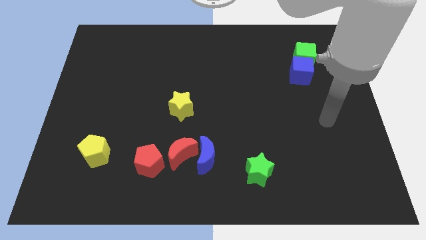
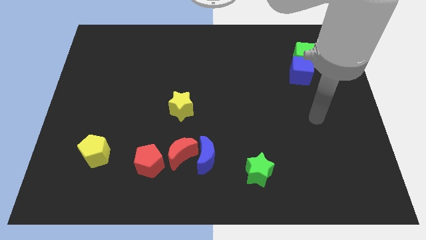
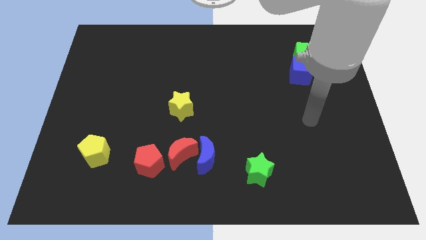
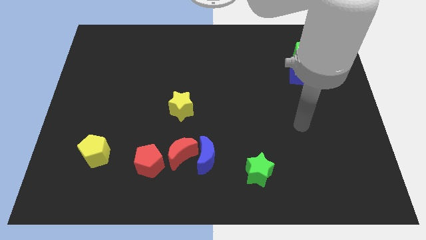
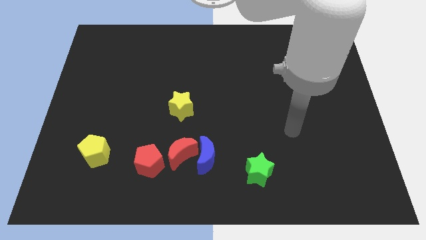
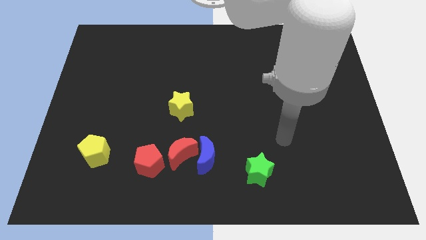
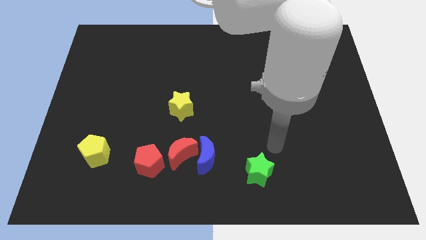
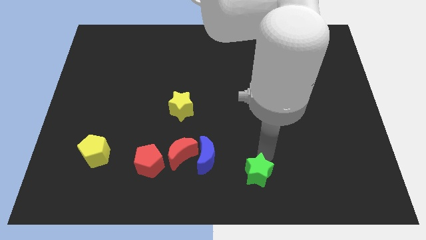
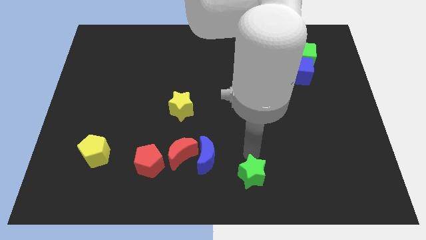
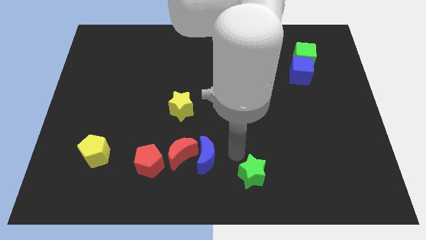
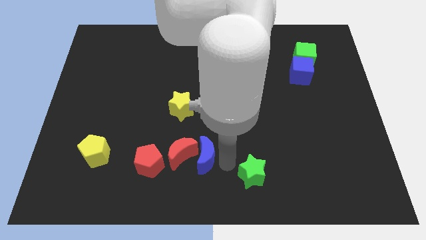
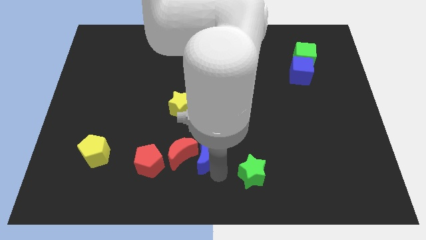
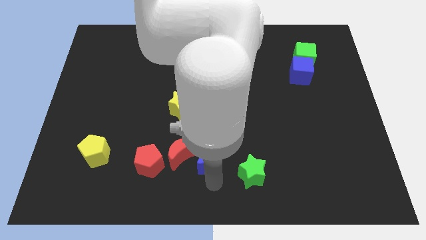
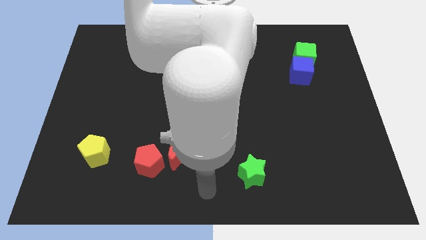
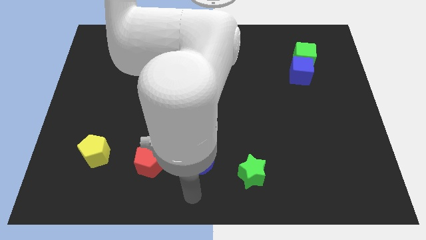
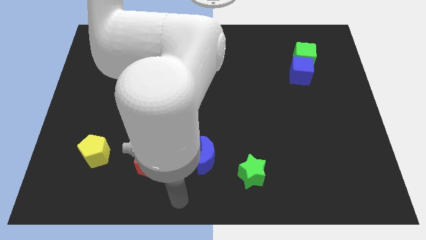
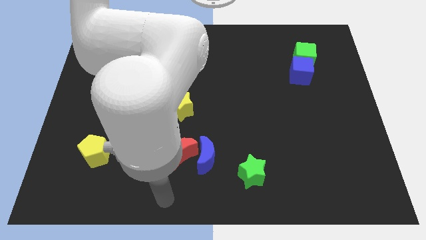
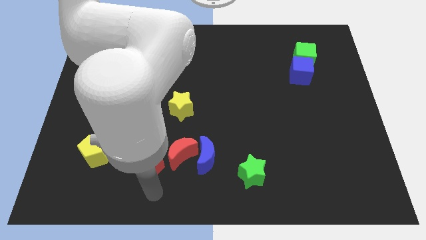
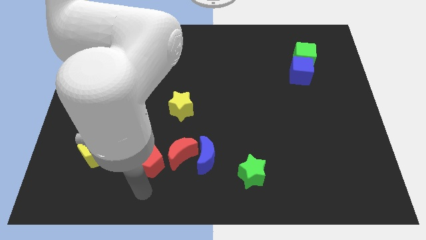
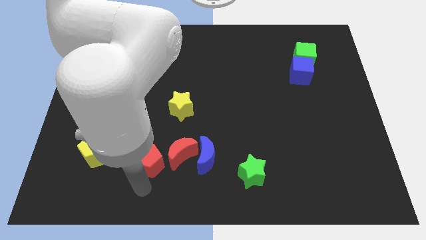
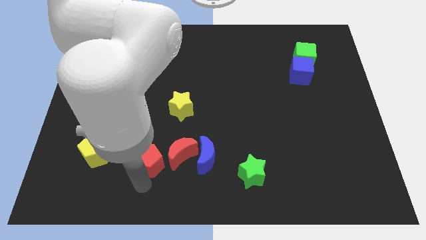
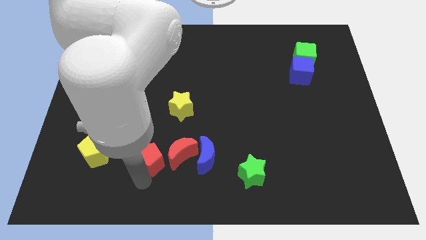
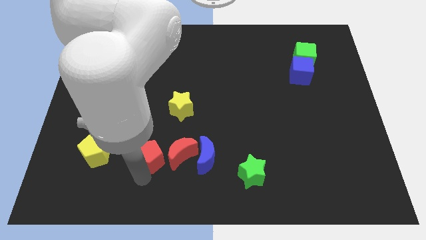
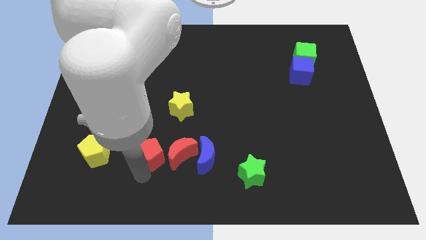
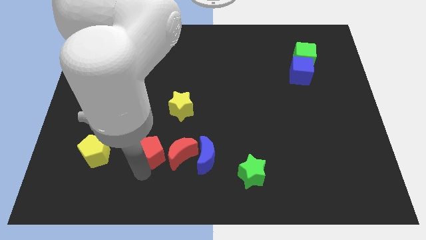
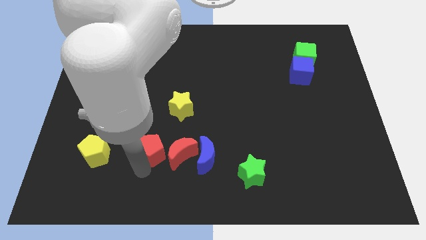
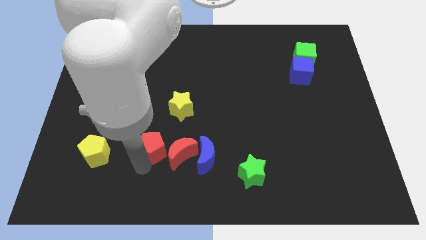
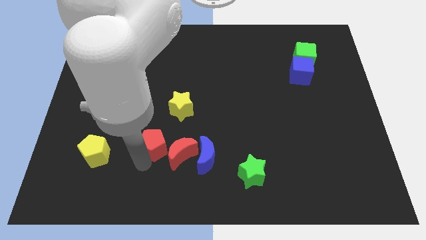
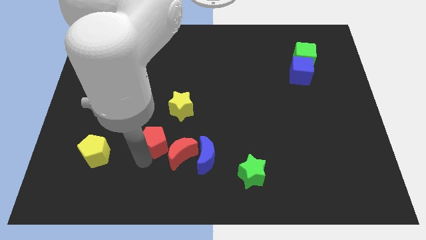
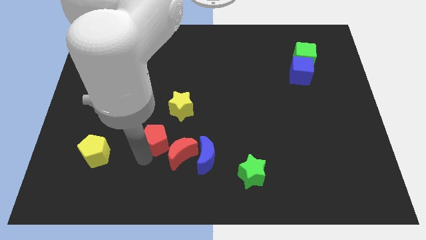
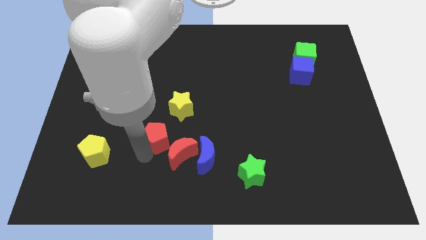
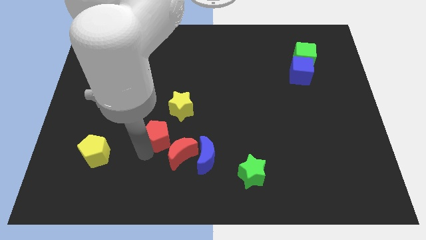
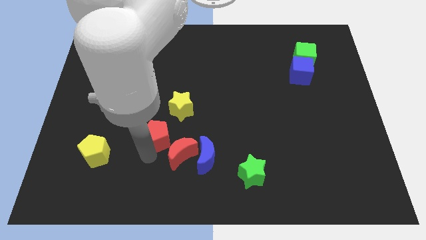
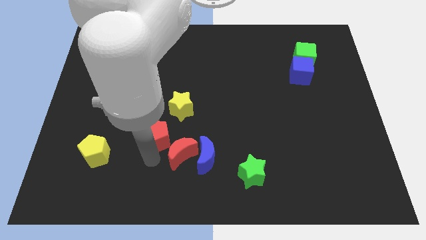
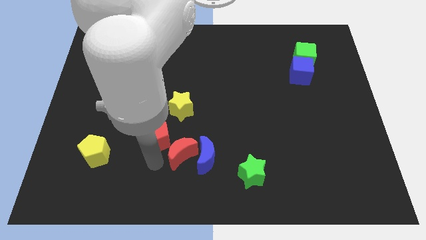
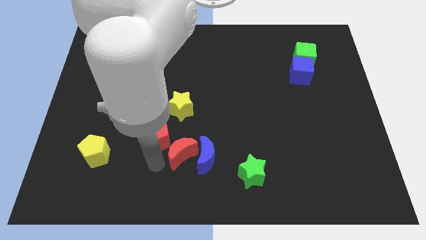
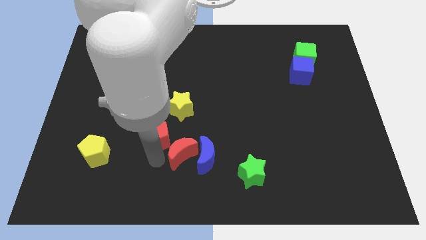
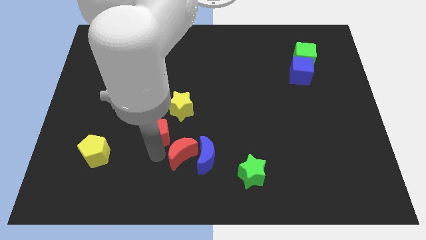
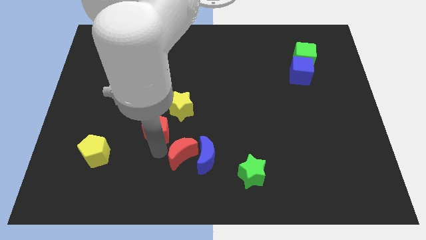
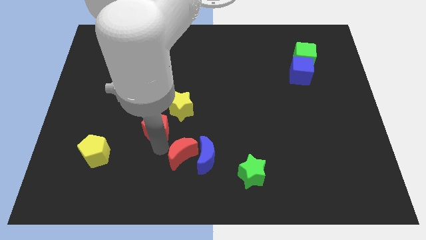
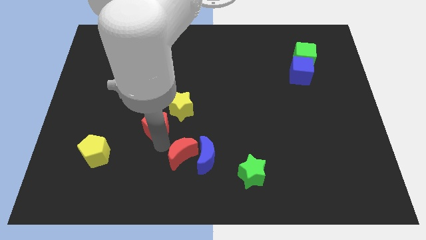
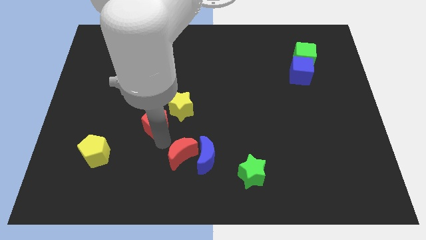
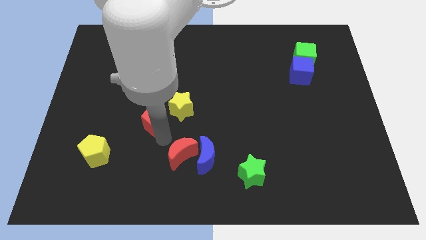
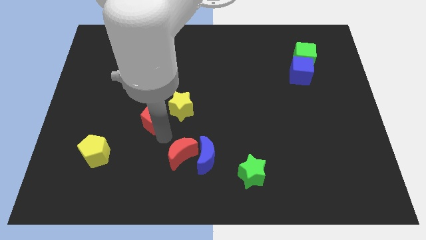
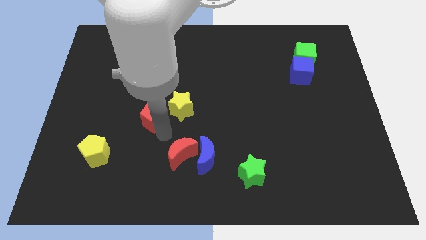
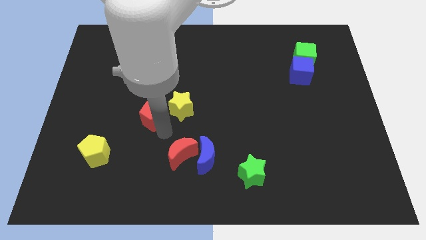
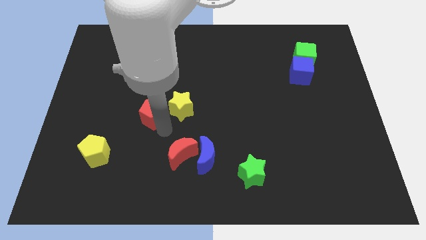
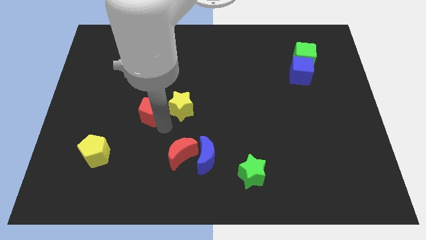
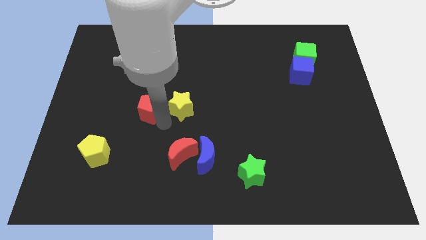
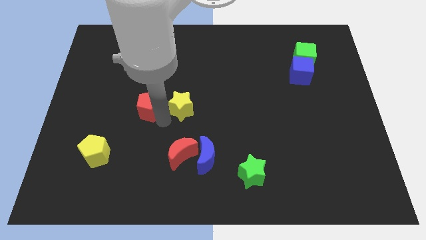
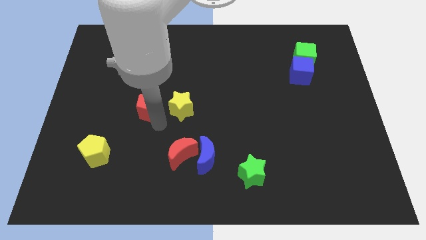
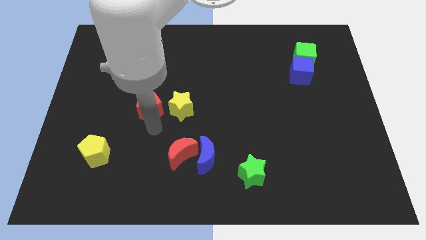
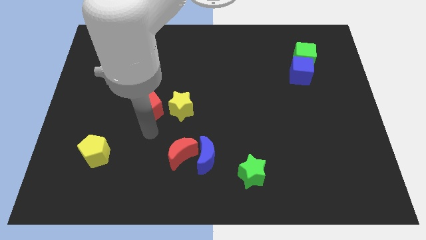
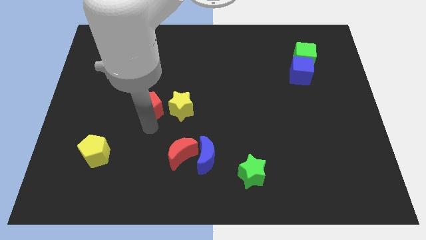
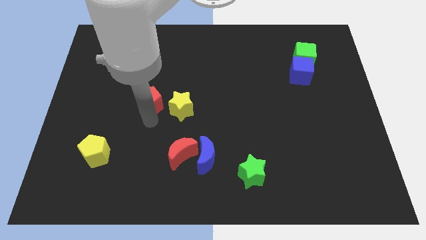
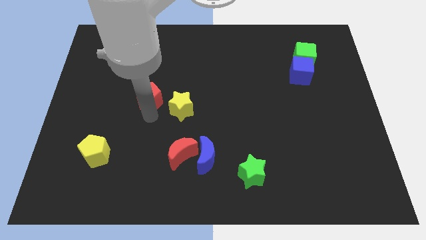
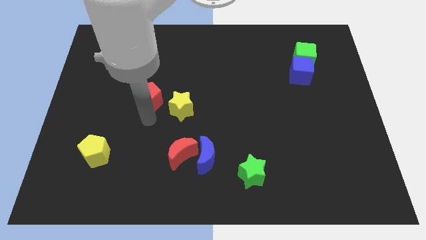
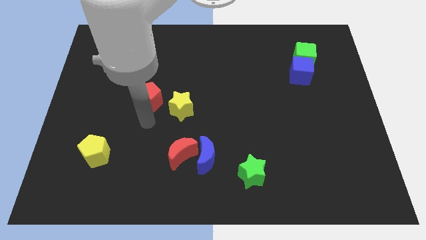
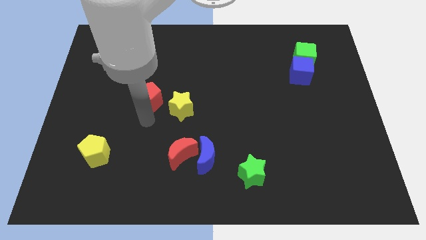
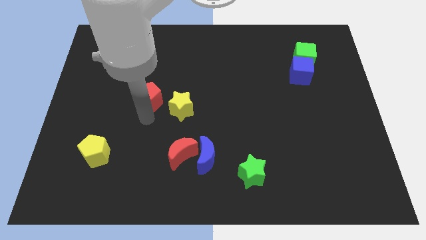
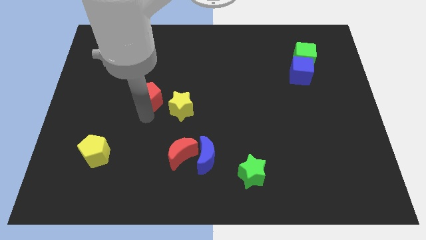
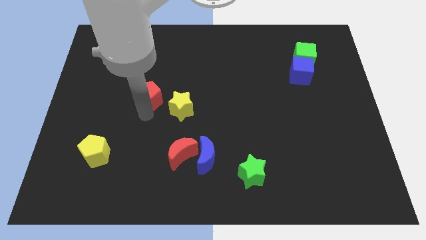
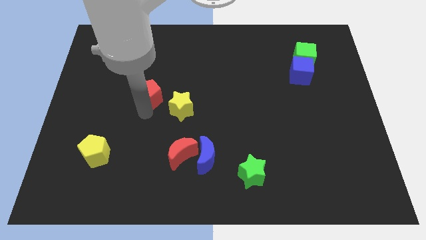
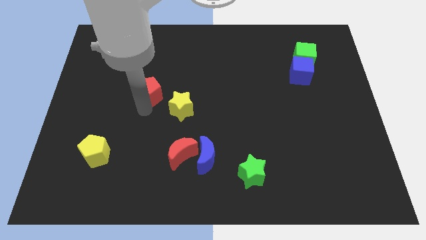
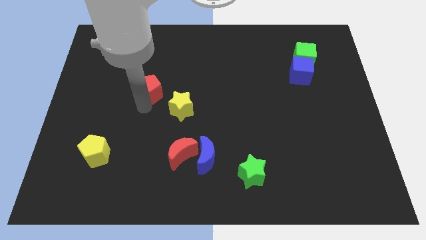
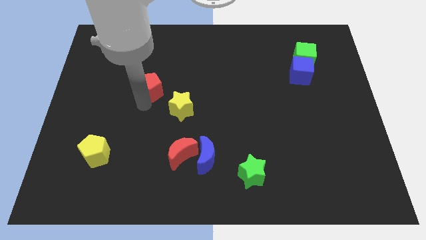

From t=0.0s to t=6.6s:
push the red pentagon up

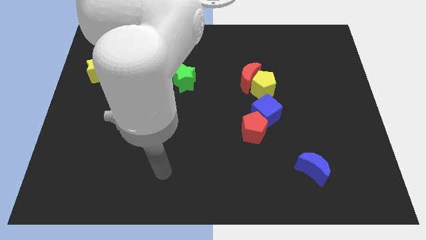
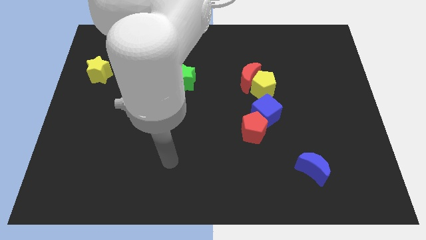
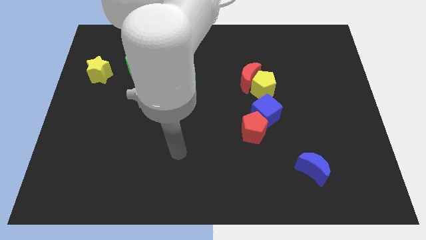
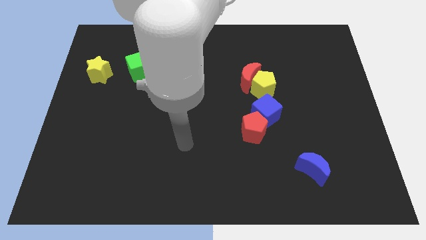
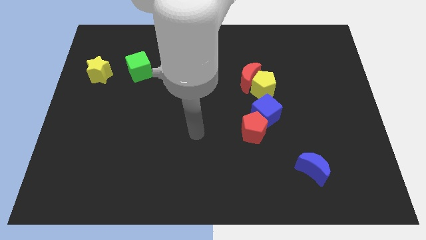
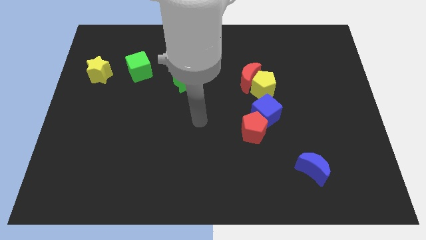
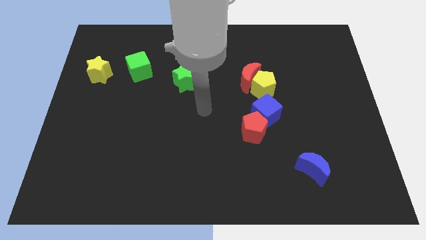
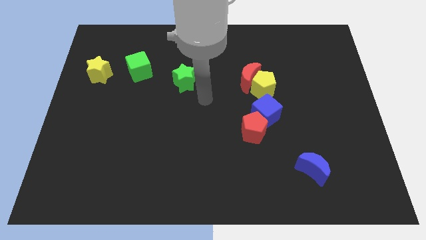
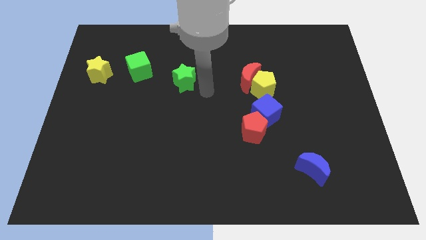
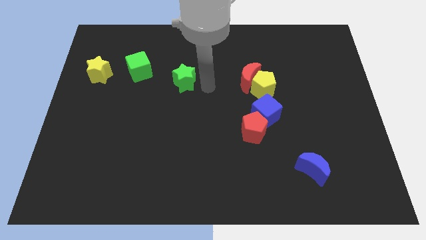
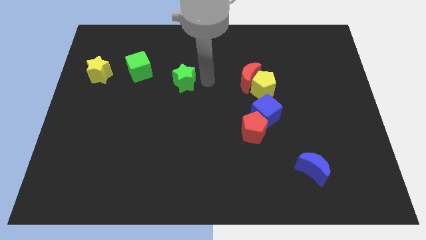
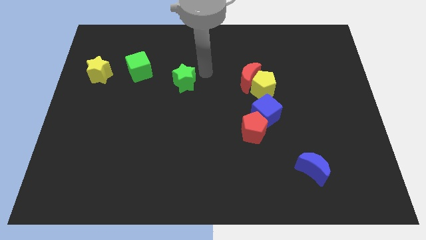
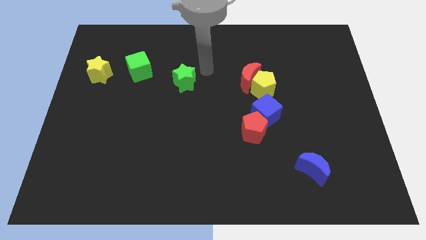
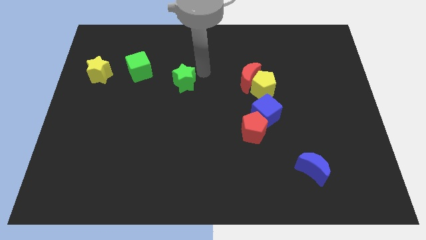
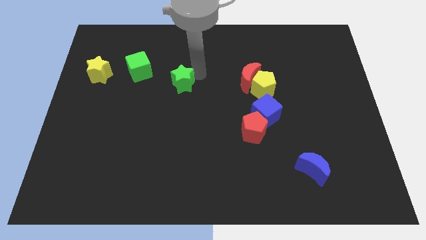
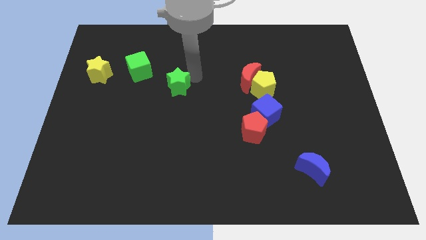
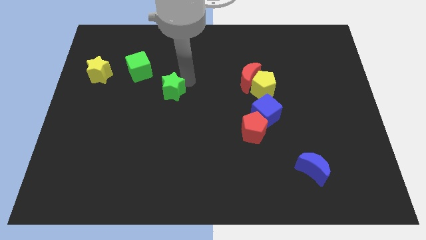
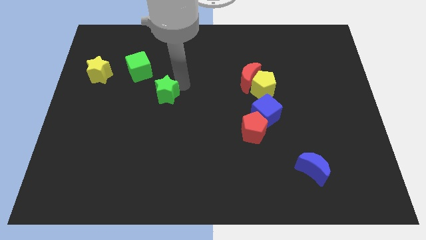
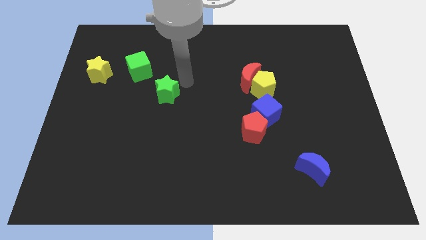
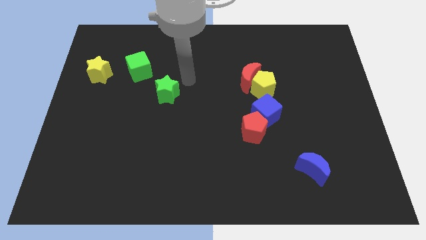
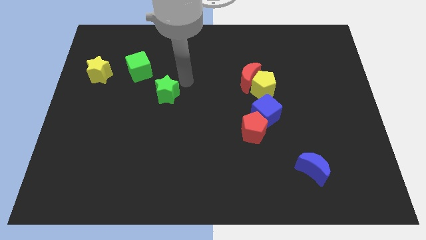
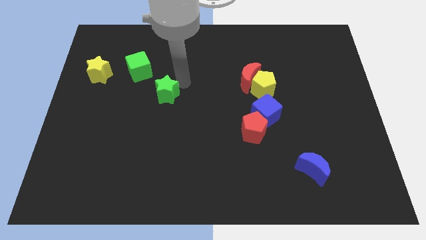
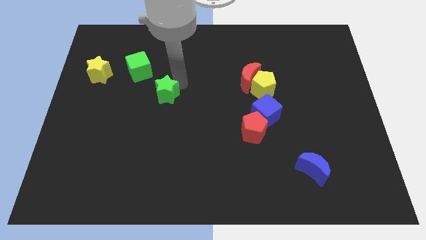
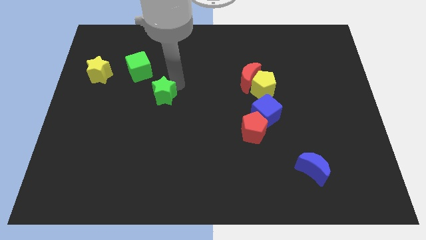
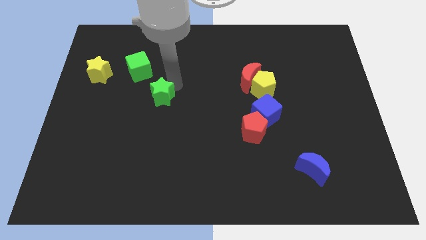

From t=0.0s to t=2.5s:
slightly move the green star downwards and to the left diagonally
